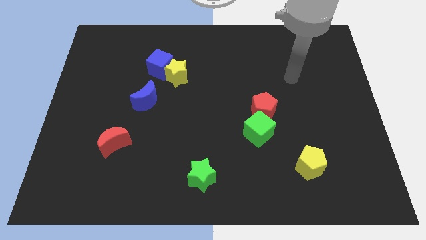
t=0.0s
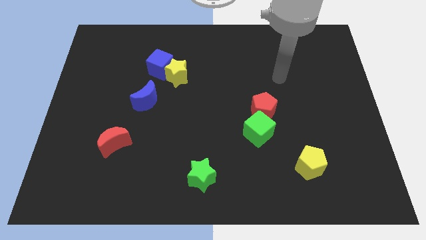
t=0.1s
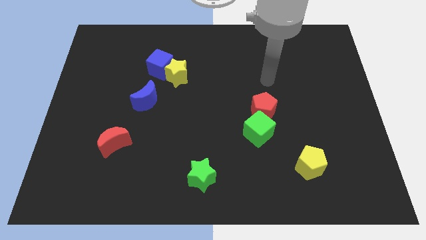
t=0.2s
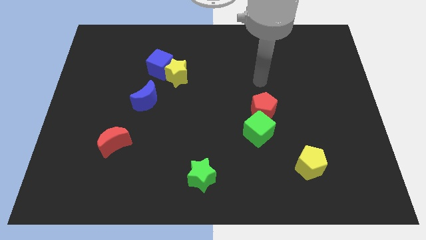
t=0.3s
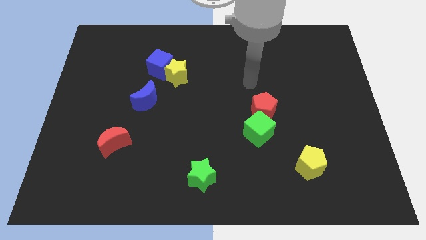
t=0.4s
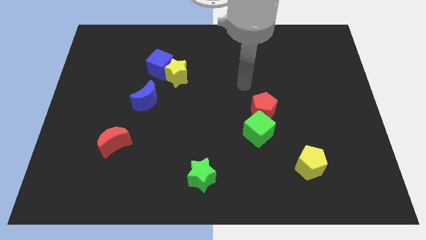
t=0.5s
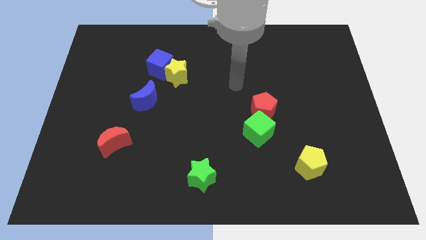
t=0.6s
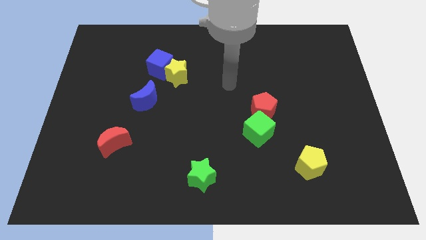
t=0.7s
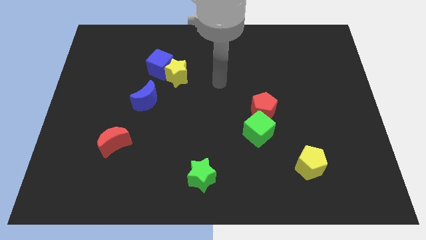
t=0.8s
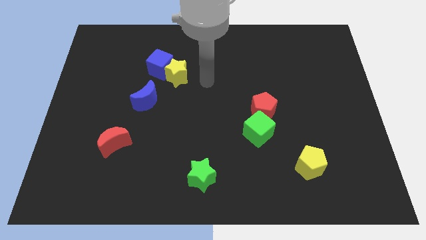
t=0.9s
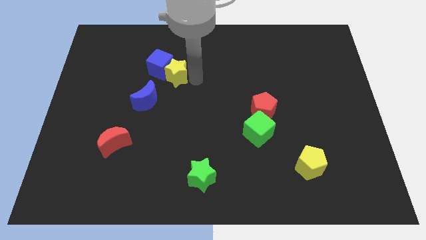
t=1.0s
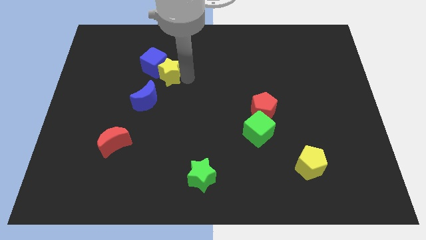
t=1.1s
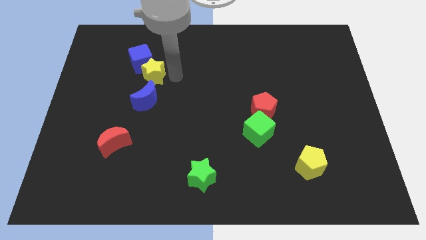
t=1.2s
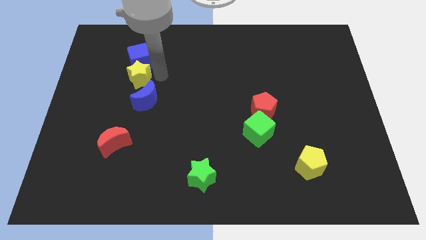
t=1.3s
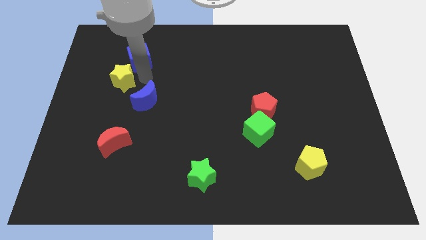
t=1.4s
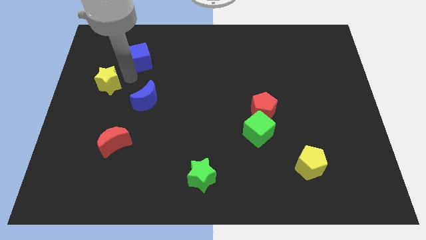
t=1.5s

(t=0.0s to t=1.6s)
move the blue cube away from the yellow star

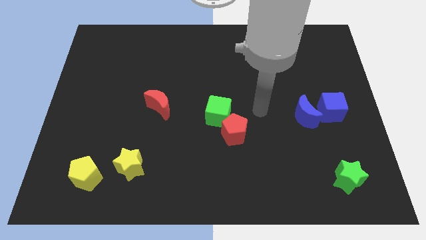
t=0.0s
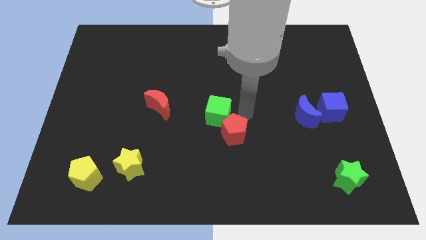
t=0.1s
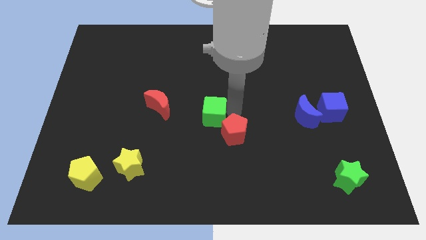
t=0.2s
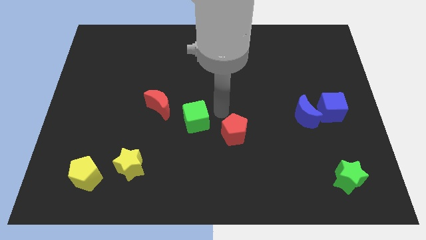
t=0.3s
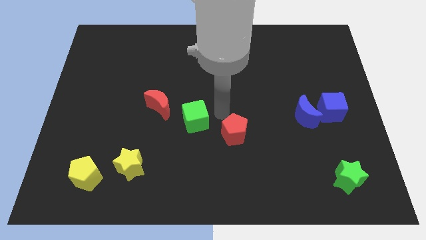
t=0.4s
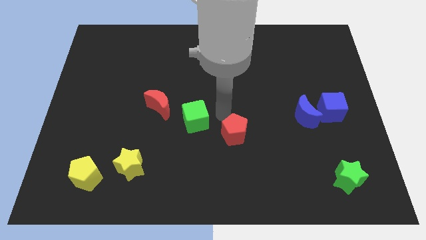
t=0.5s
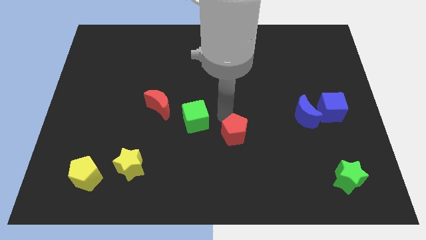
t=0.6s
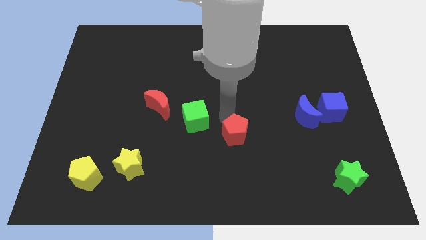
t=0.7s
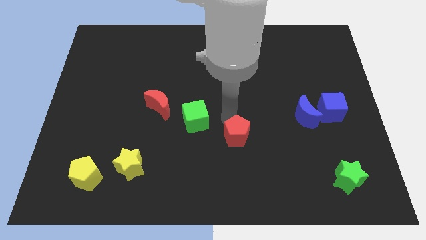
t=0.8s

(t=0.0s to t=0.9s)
separate the red pentagon from the green cube

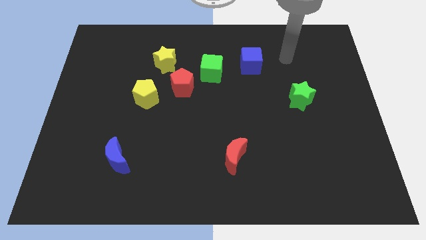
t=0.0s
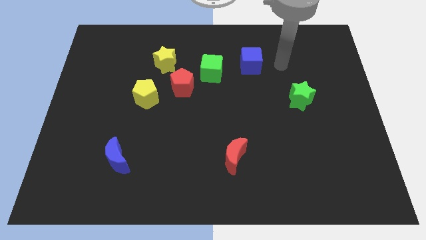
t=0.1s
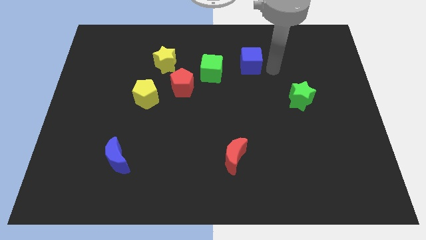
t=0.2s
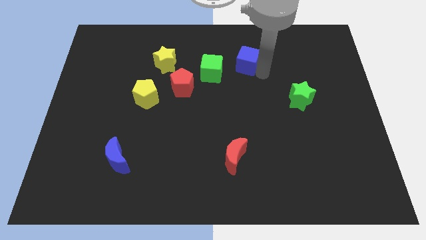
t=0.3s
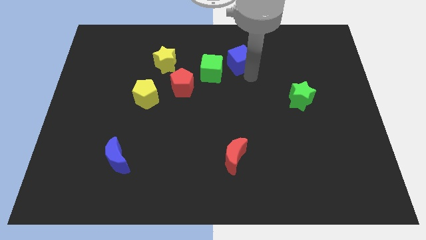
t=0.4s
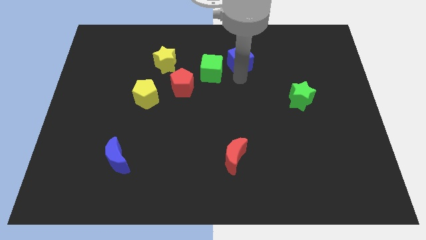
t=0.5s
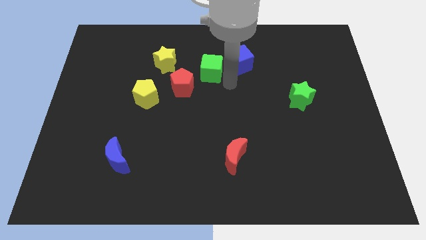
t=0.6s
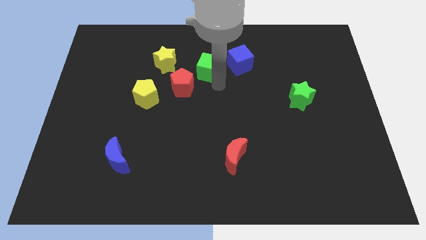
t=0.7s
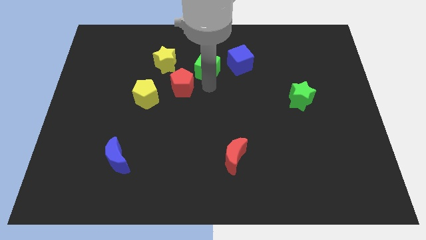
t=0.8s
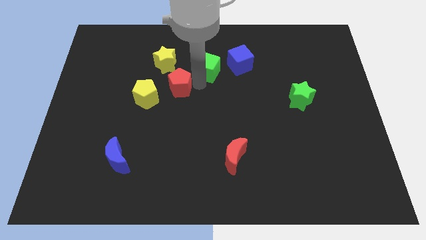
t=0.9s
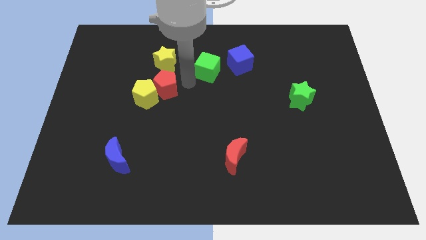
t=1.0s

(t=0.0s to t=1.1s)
pull the green cube apart from the red pentagon

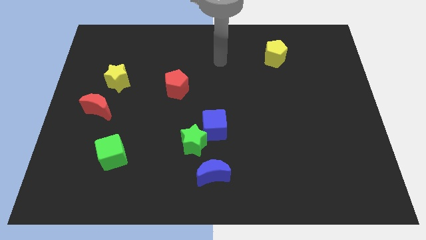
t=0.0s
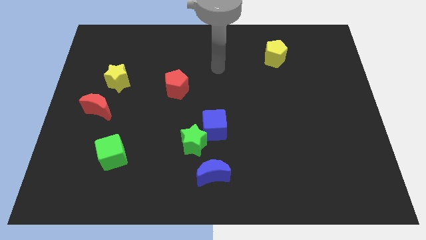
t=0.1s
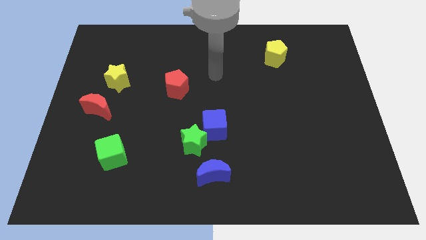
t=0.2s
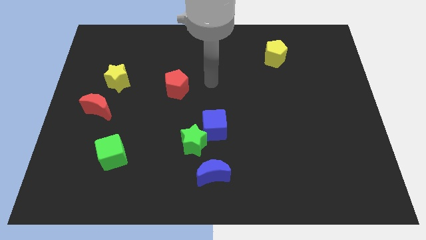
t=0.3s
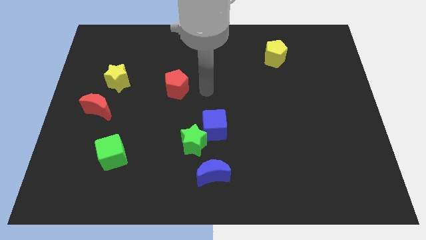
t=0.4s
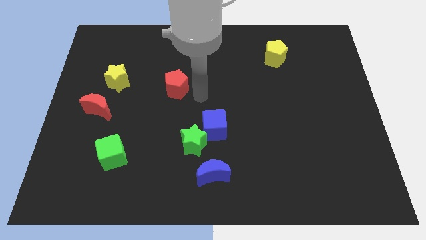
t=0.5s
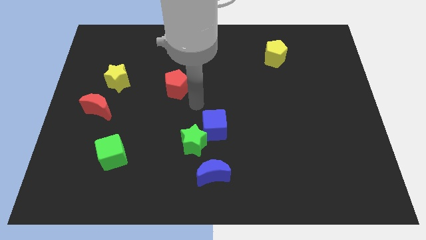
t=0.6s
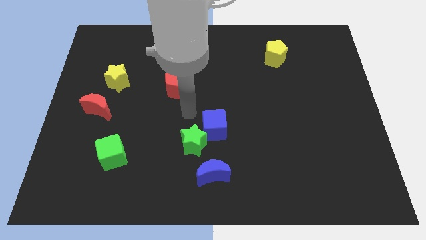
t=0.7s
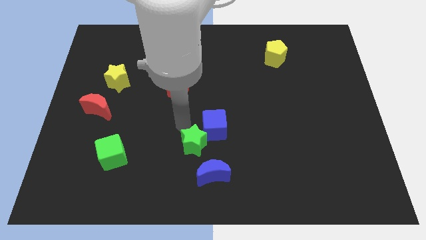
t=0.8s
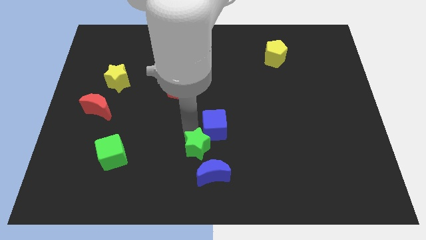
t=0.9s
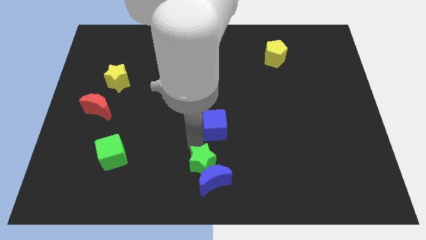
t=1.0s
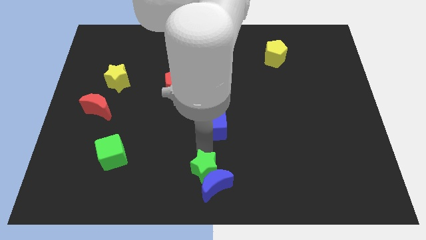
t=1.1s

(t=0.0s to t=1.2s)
separate the blue cube from the green star

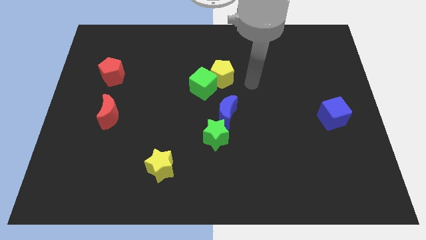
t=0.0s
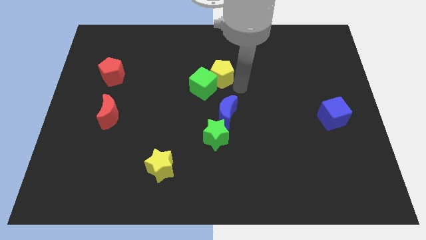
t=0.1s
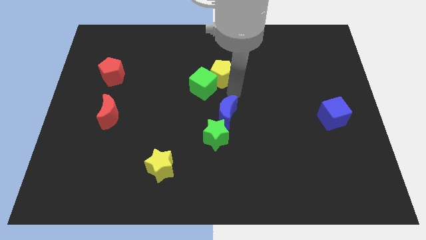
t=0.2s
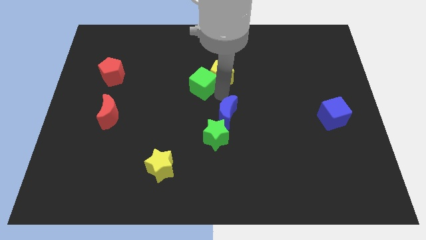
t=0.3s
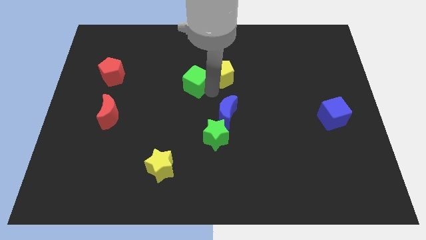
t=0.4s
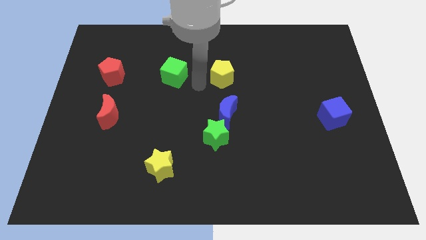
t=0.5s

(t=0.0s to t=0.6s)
move the yellow pentagon away from the green cube

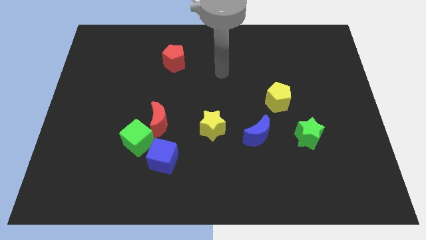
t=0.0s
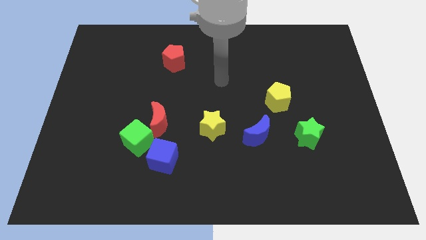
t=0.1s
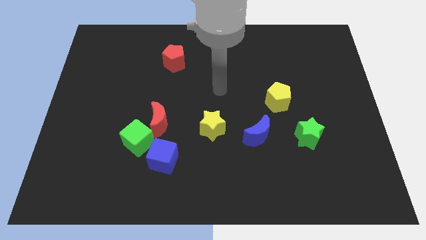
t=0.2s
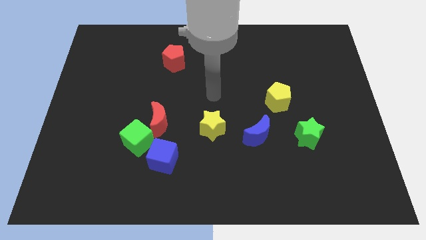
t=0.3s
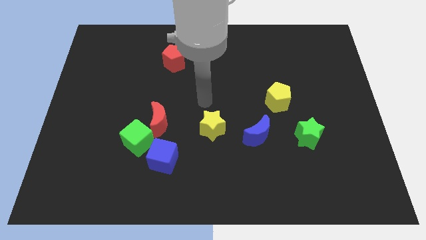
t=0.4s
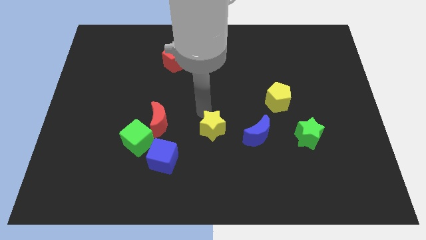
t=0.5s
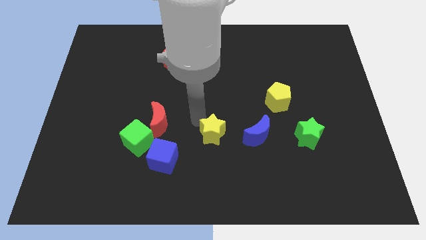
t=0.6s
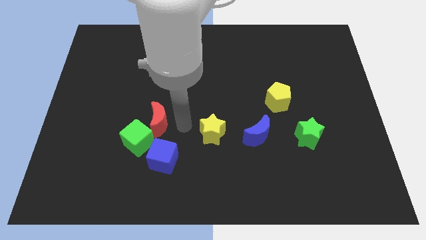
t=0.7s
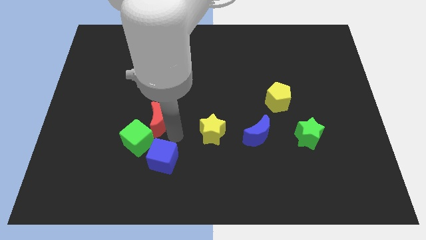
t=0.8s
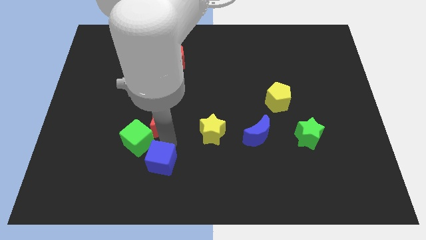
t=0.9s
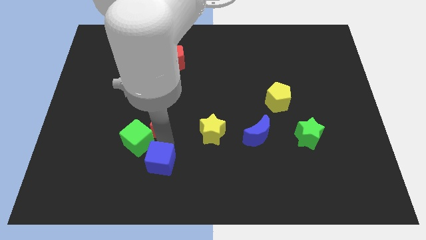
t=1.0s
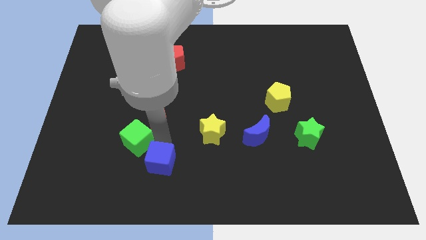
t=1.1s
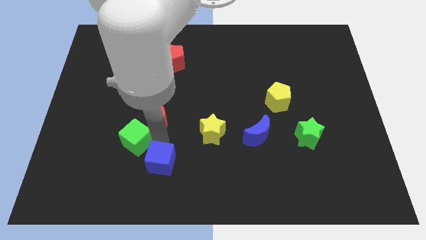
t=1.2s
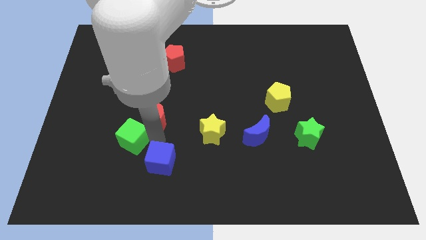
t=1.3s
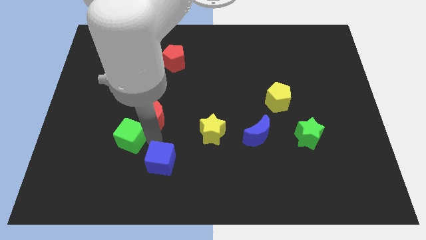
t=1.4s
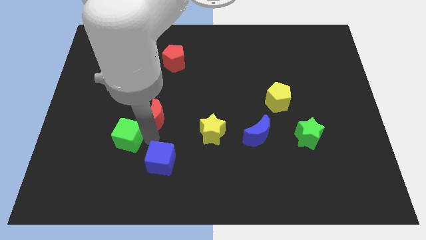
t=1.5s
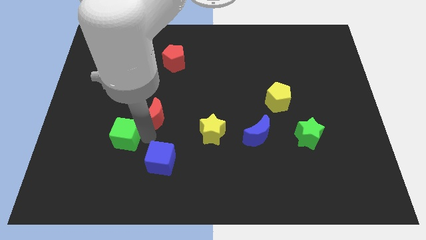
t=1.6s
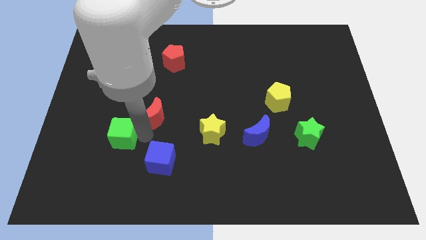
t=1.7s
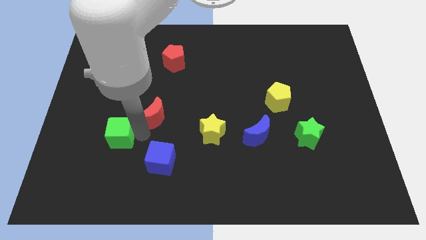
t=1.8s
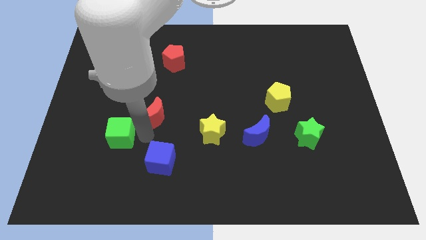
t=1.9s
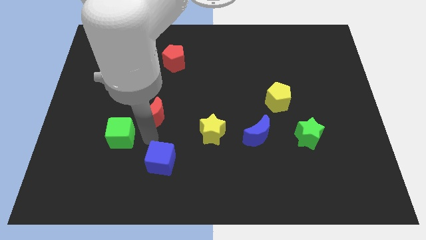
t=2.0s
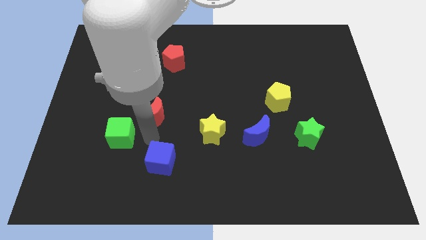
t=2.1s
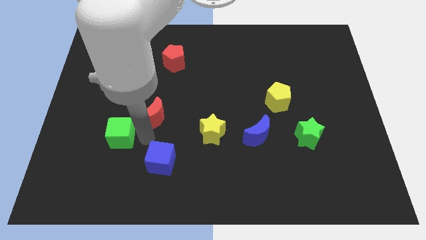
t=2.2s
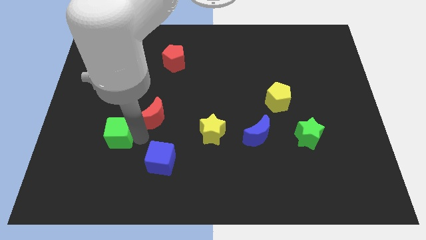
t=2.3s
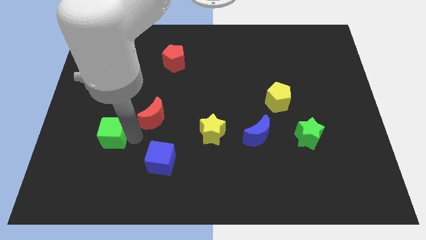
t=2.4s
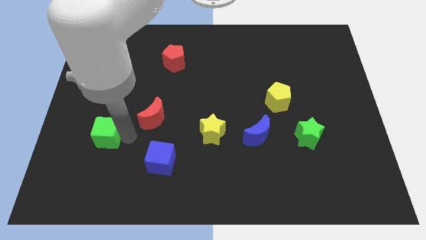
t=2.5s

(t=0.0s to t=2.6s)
move the green cube away from the red moon and blue cube

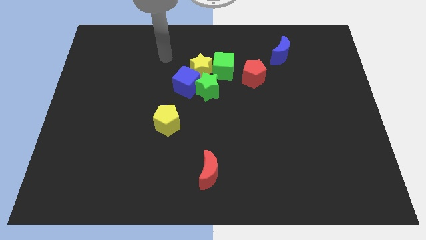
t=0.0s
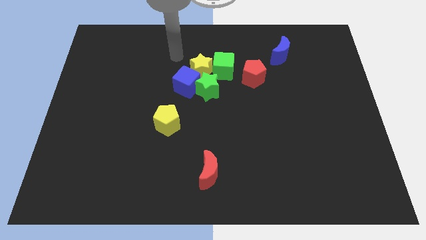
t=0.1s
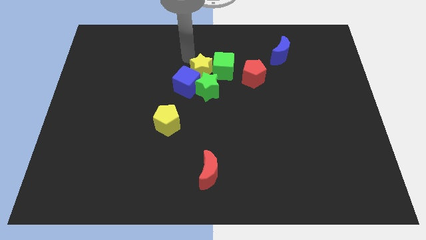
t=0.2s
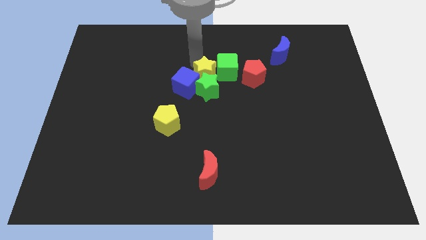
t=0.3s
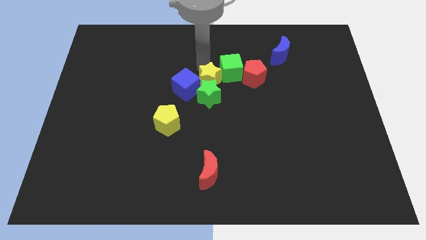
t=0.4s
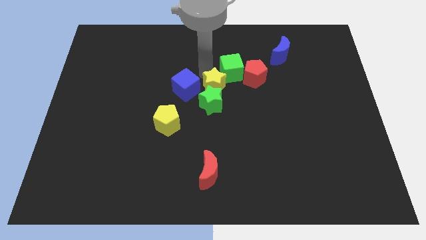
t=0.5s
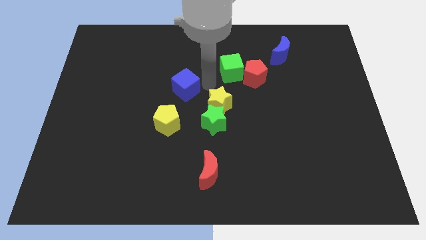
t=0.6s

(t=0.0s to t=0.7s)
separate the blue cube from the green star and yellow star

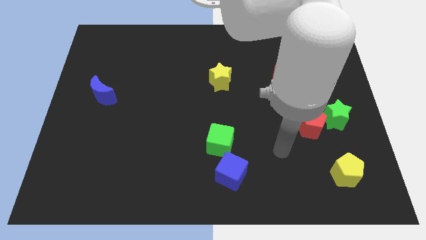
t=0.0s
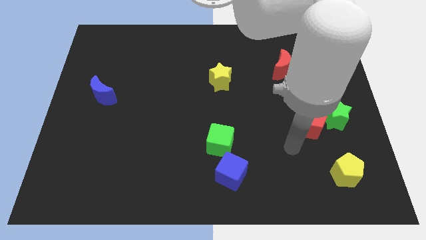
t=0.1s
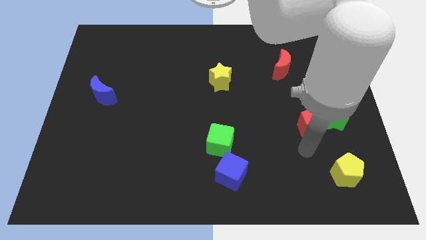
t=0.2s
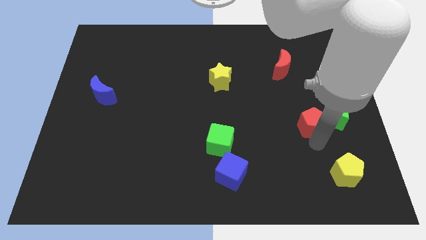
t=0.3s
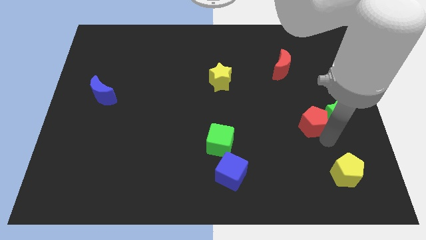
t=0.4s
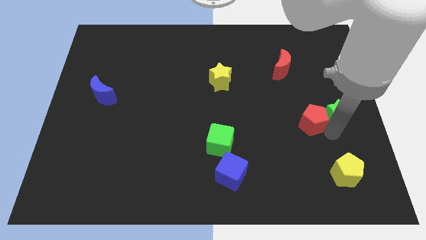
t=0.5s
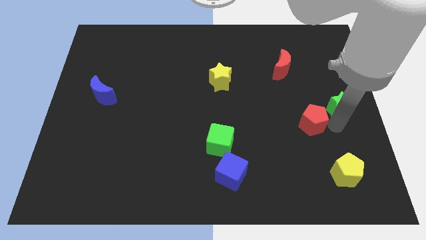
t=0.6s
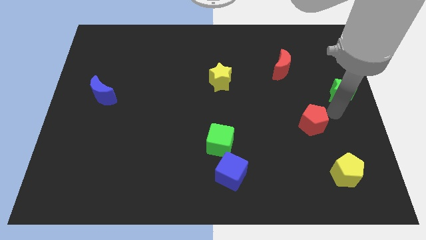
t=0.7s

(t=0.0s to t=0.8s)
pull the red pentagon apart from the green star
